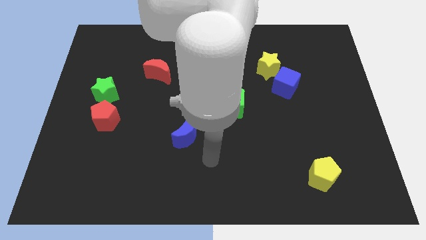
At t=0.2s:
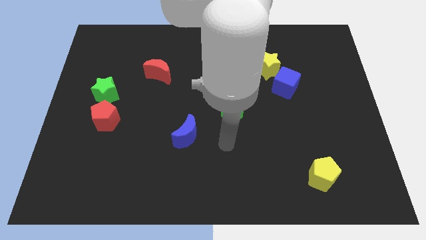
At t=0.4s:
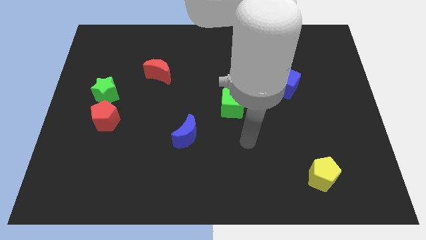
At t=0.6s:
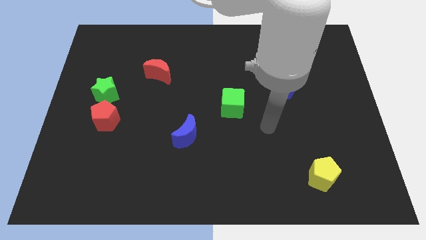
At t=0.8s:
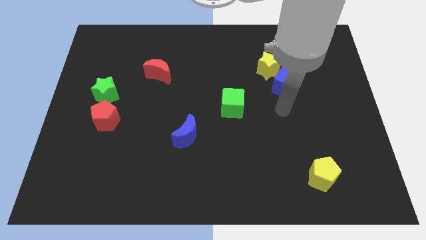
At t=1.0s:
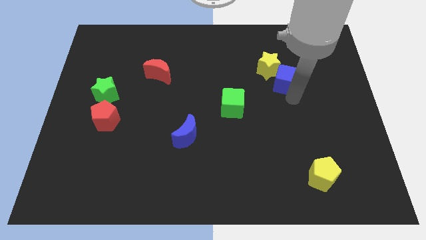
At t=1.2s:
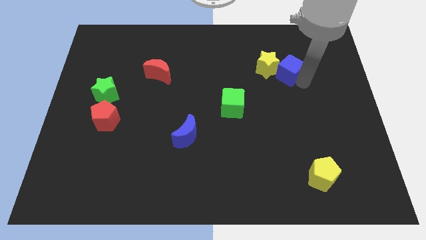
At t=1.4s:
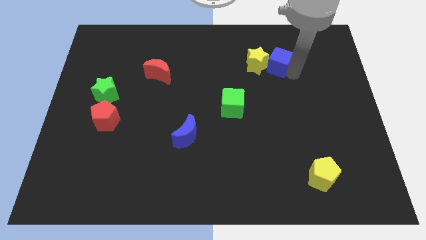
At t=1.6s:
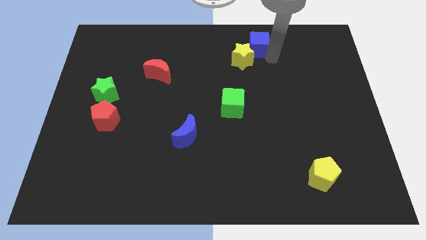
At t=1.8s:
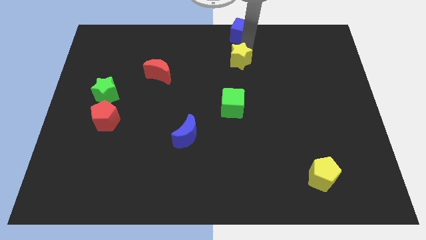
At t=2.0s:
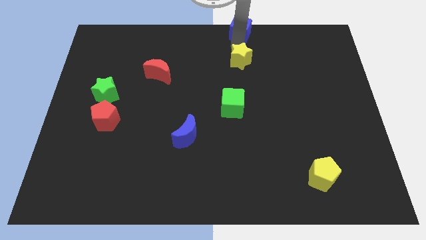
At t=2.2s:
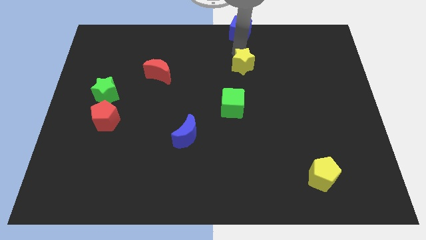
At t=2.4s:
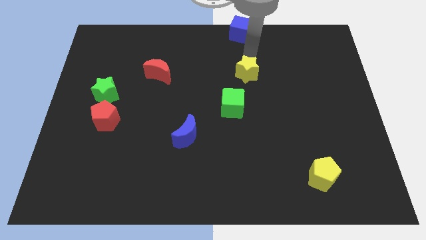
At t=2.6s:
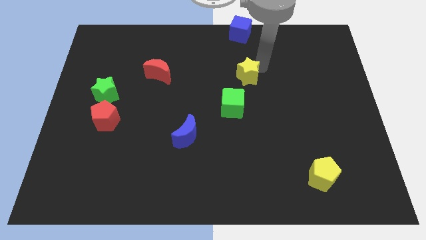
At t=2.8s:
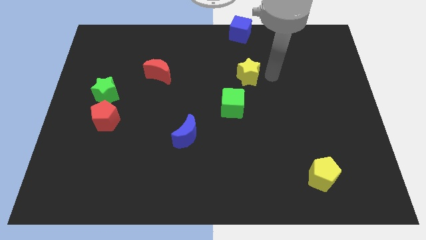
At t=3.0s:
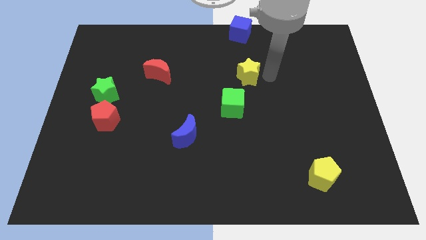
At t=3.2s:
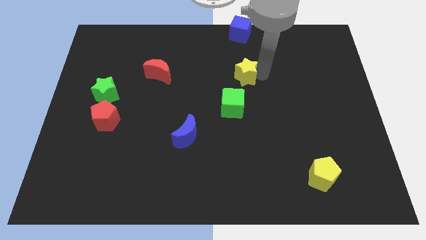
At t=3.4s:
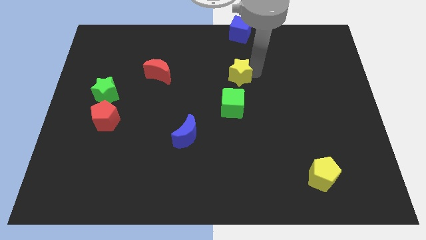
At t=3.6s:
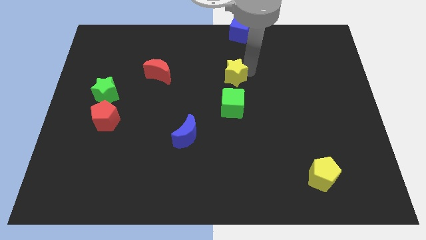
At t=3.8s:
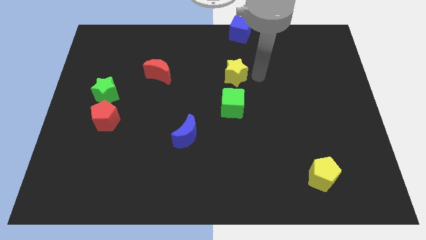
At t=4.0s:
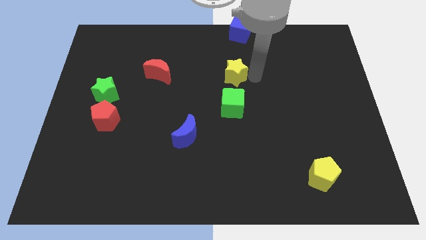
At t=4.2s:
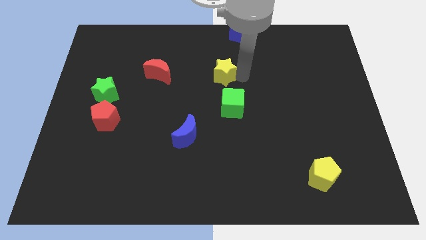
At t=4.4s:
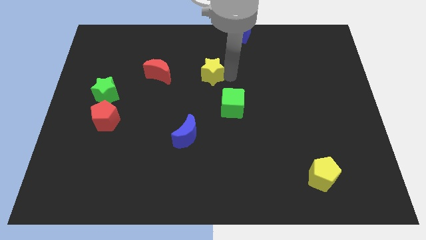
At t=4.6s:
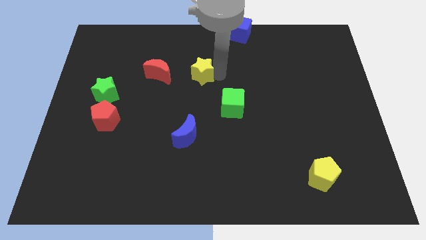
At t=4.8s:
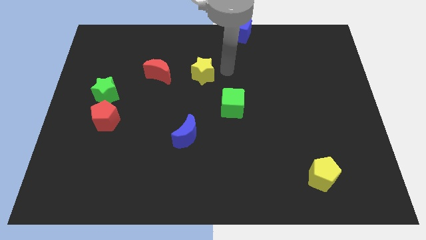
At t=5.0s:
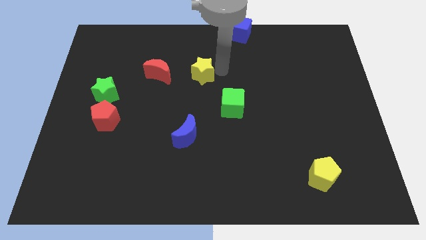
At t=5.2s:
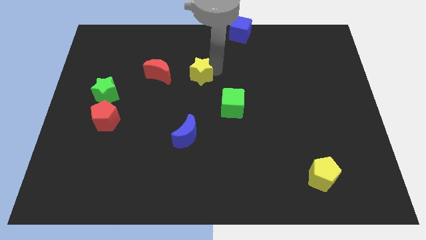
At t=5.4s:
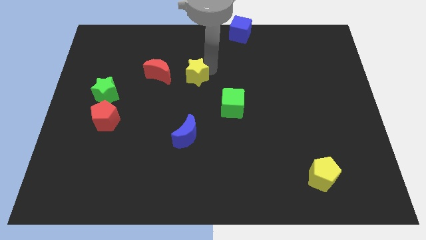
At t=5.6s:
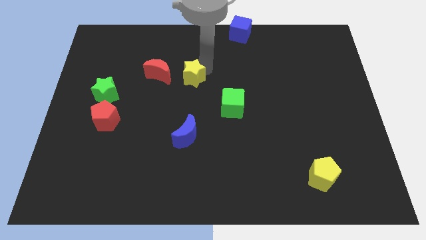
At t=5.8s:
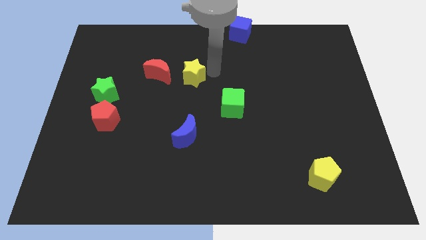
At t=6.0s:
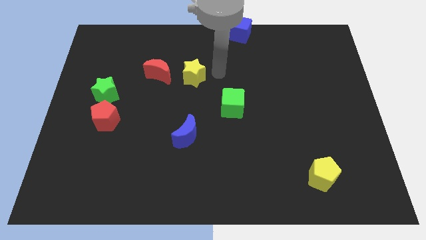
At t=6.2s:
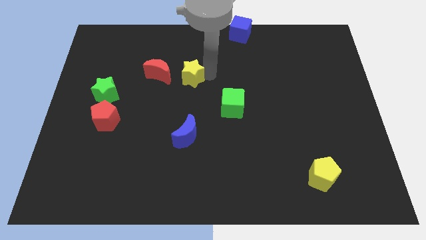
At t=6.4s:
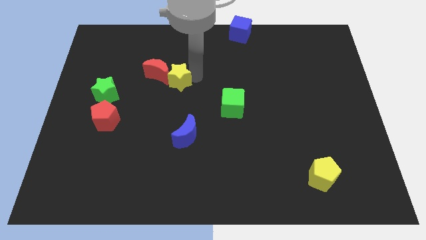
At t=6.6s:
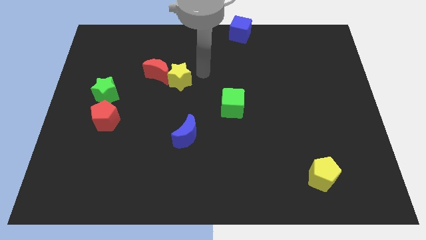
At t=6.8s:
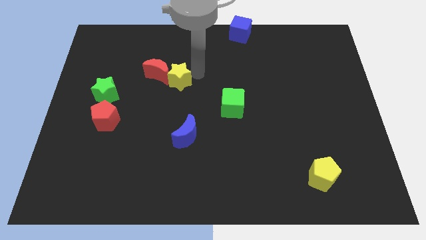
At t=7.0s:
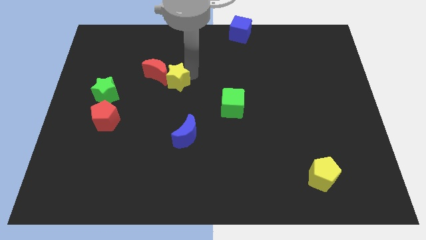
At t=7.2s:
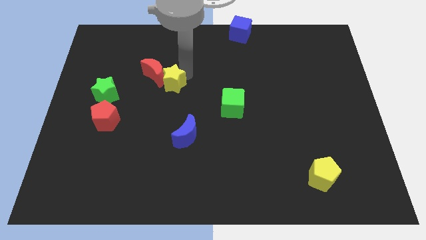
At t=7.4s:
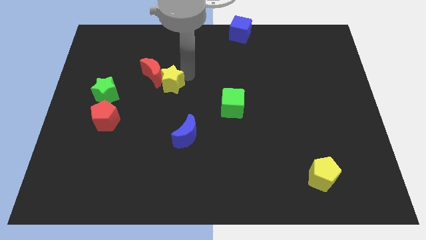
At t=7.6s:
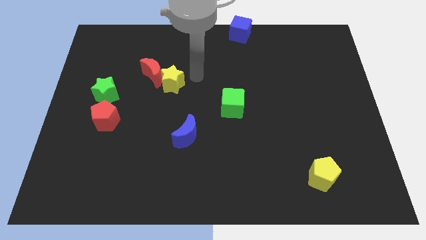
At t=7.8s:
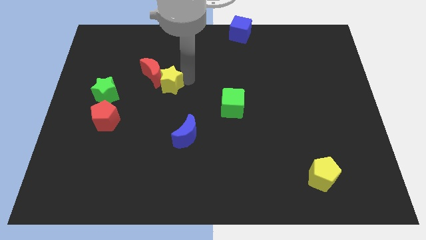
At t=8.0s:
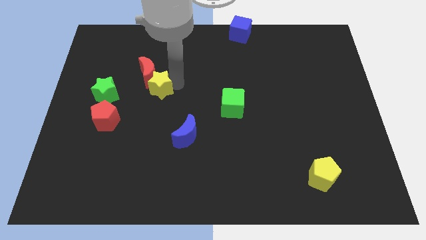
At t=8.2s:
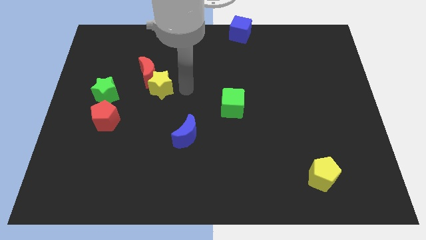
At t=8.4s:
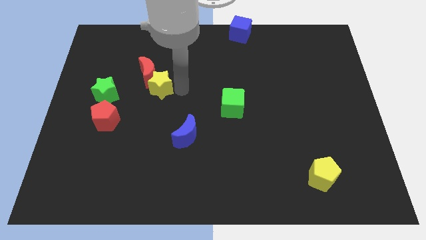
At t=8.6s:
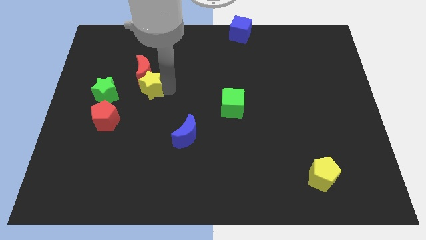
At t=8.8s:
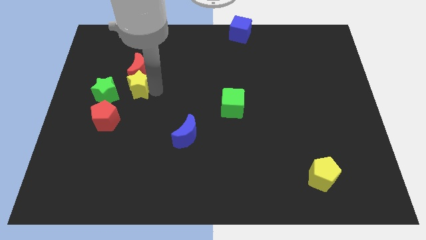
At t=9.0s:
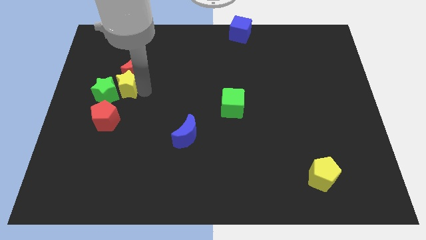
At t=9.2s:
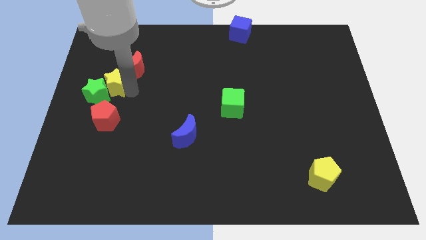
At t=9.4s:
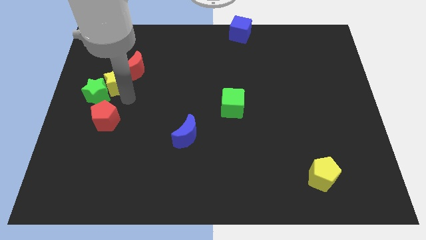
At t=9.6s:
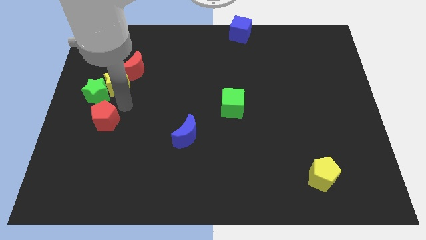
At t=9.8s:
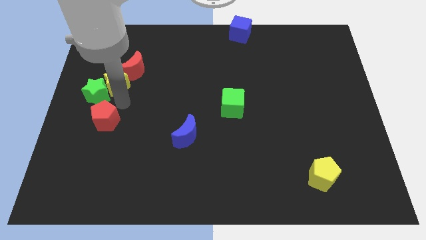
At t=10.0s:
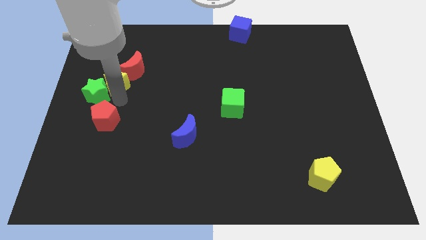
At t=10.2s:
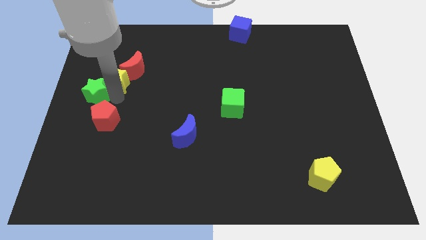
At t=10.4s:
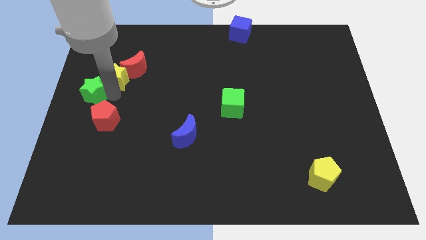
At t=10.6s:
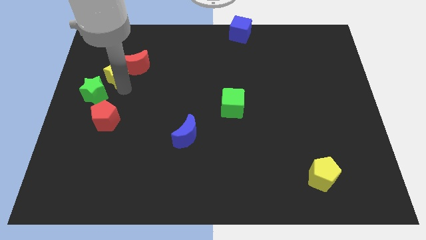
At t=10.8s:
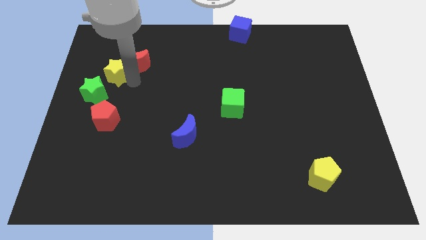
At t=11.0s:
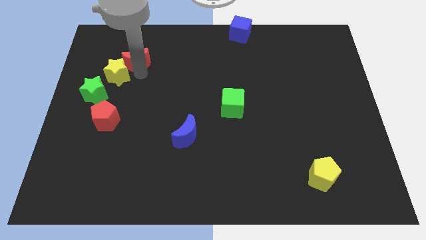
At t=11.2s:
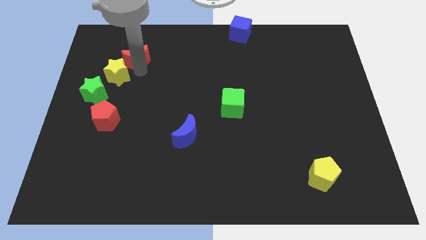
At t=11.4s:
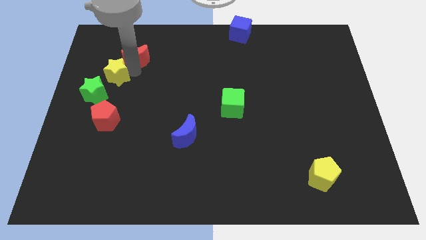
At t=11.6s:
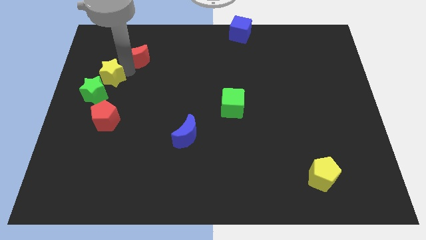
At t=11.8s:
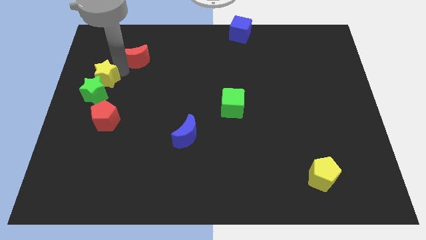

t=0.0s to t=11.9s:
push the yellow star to the left side of the board
